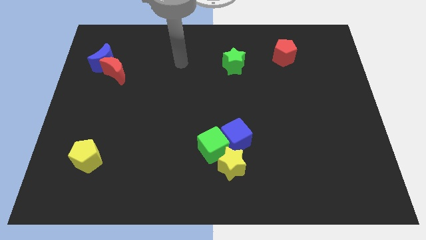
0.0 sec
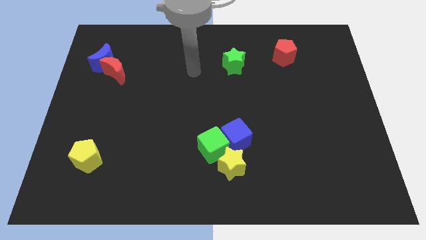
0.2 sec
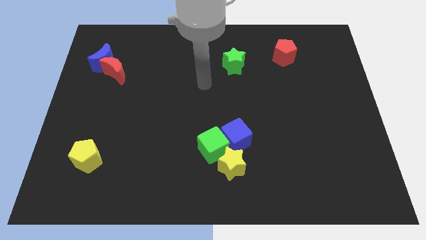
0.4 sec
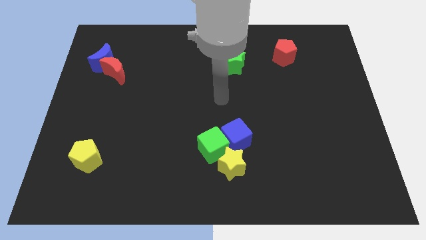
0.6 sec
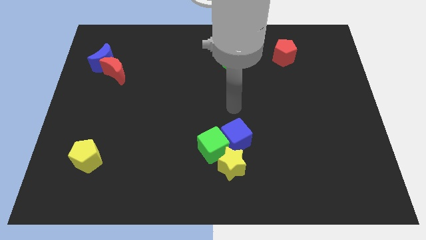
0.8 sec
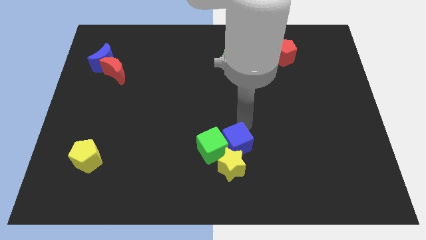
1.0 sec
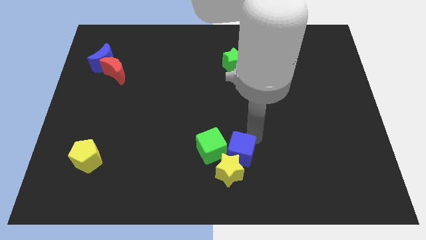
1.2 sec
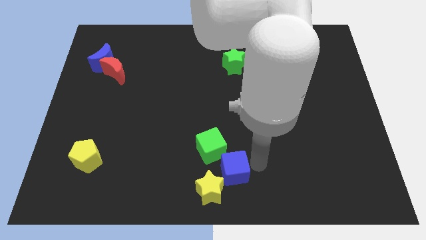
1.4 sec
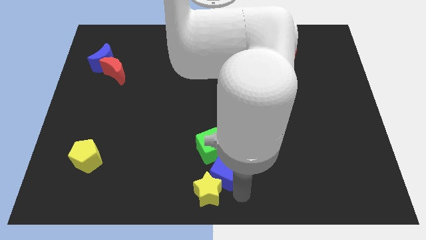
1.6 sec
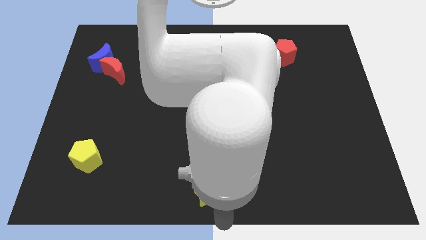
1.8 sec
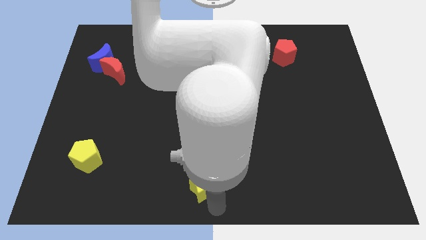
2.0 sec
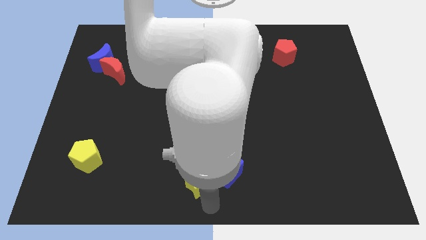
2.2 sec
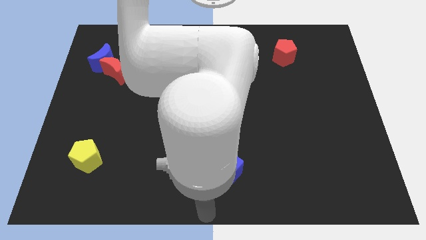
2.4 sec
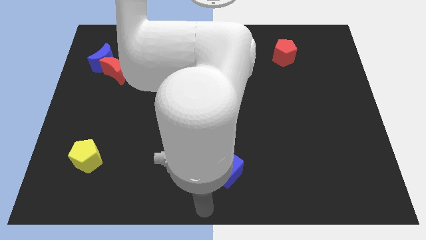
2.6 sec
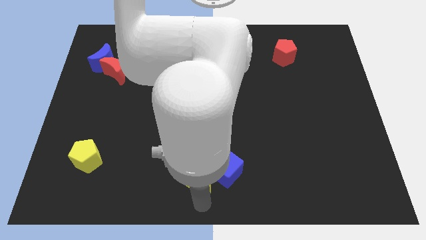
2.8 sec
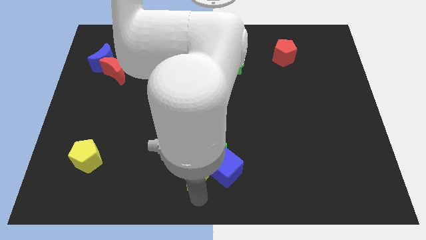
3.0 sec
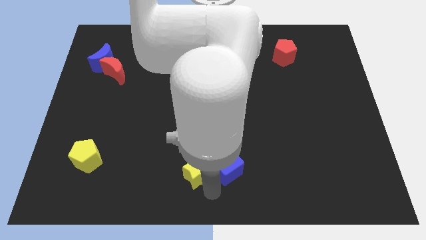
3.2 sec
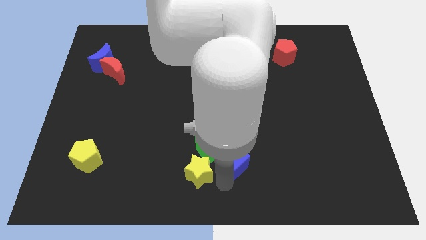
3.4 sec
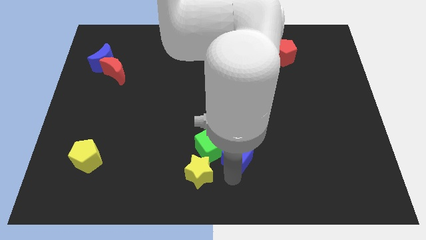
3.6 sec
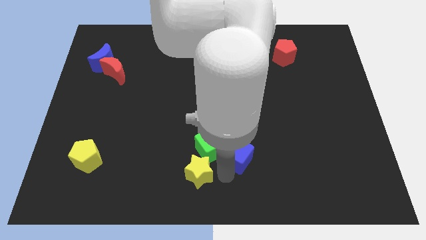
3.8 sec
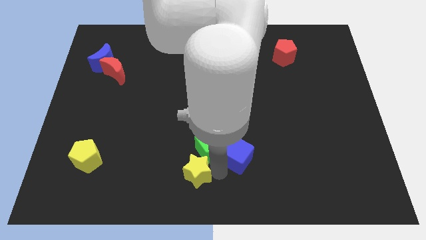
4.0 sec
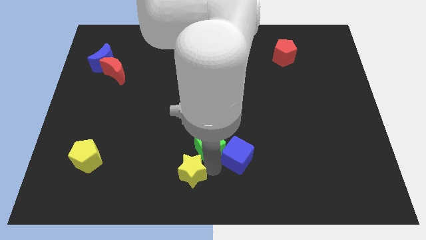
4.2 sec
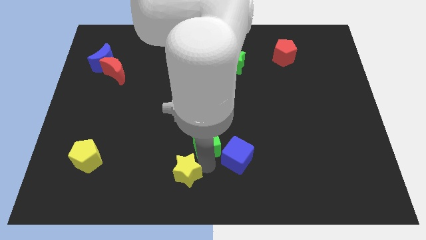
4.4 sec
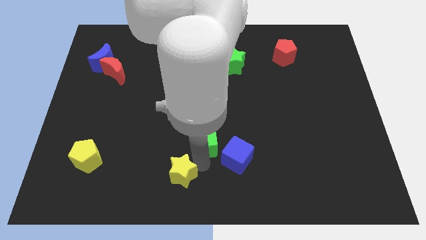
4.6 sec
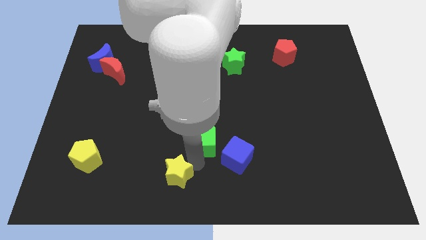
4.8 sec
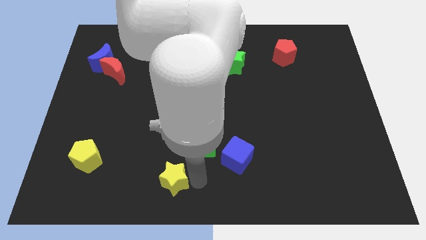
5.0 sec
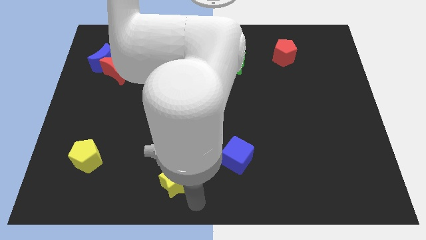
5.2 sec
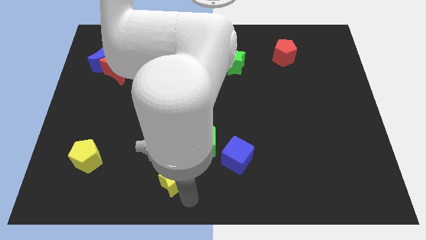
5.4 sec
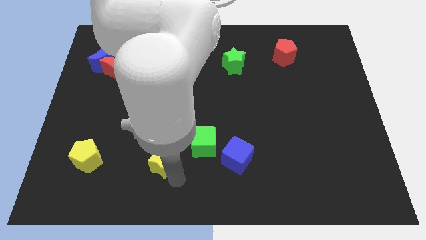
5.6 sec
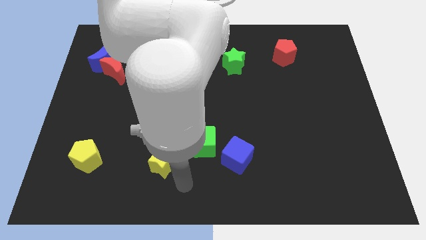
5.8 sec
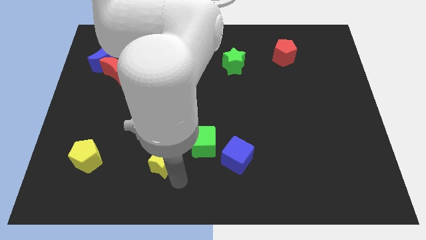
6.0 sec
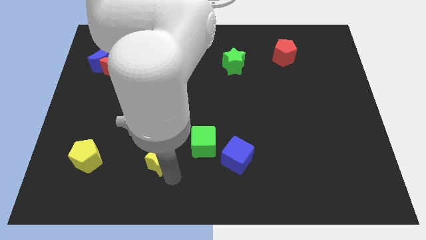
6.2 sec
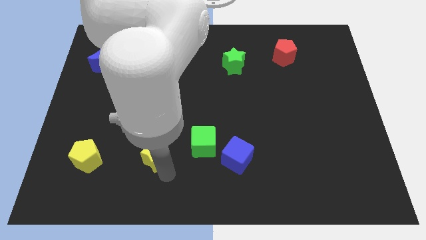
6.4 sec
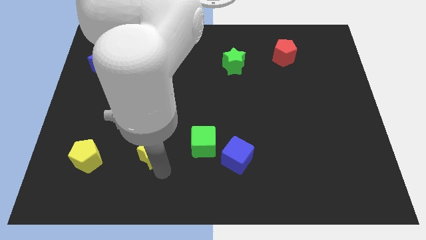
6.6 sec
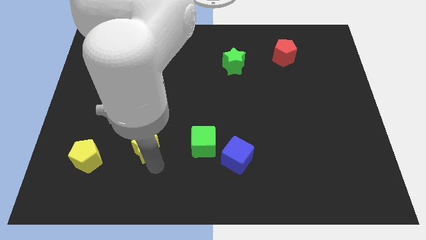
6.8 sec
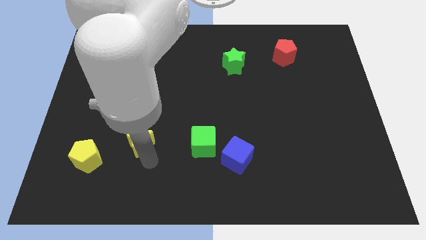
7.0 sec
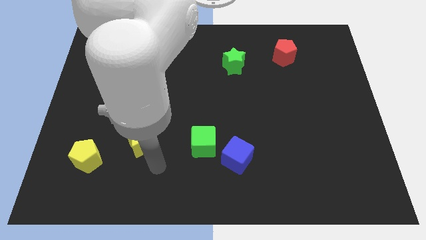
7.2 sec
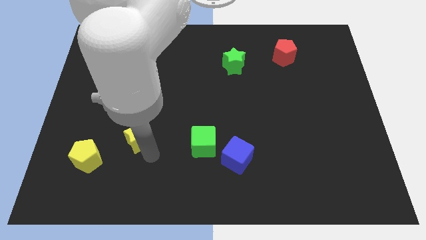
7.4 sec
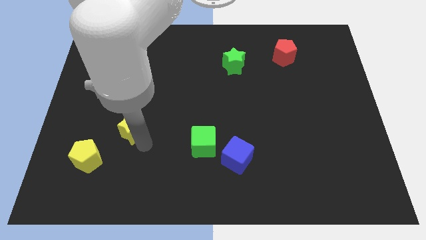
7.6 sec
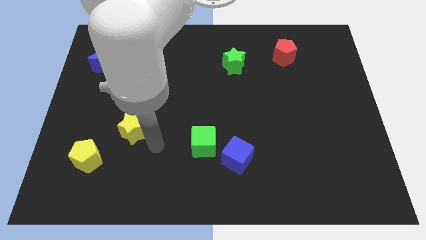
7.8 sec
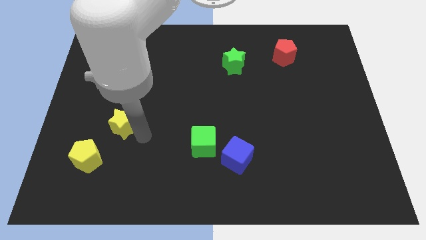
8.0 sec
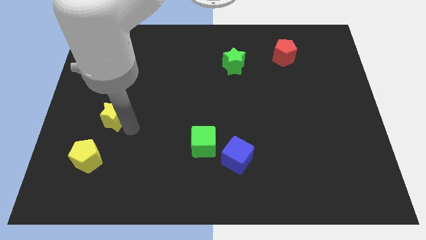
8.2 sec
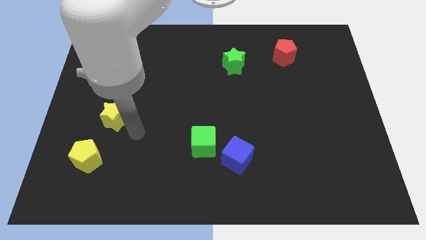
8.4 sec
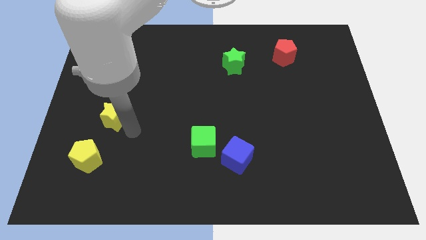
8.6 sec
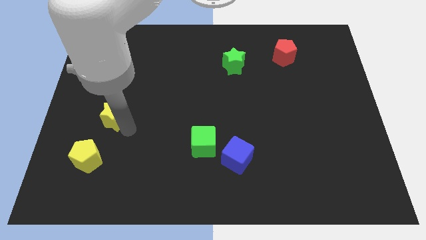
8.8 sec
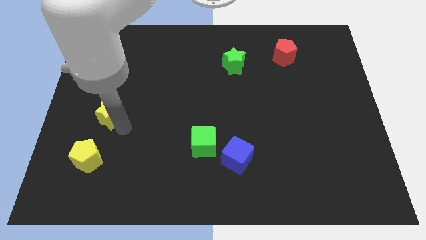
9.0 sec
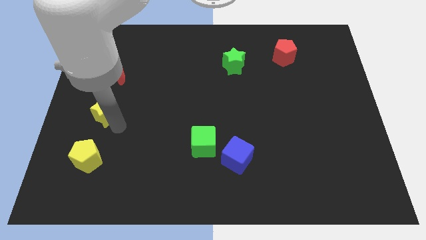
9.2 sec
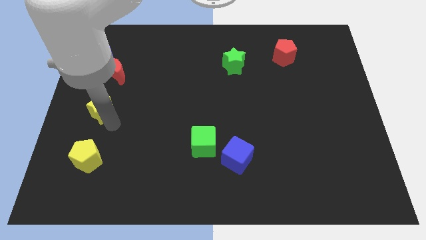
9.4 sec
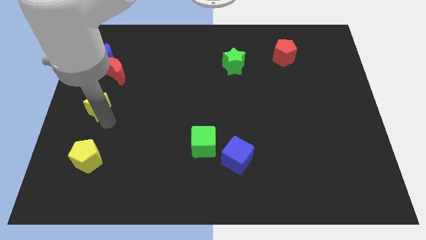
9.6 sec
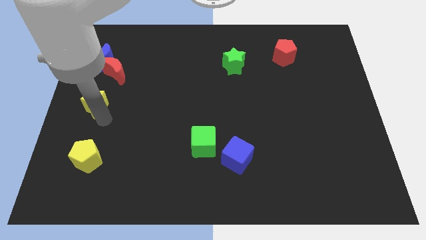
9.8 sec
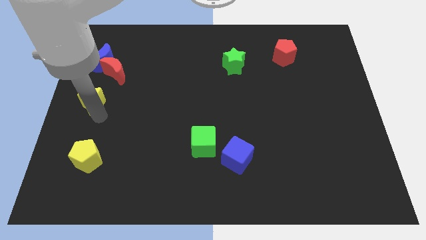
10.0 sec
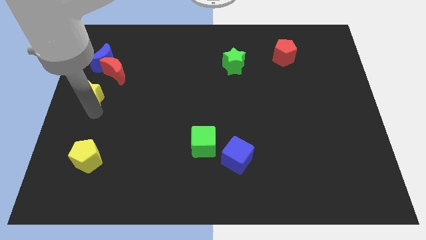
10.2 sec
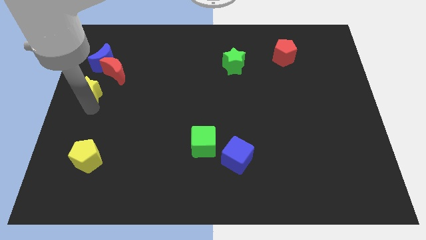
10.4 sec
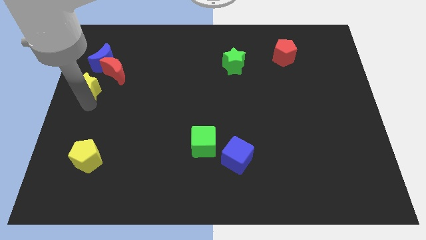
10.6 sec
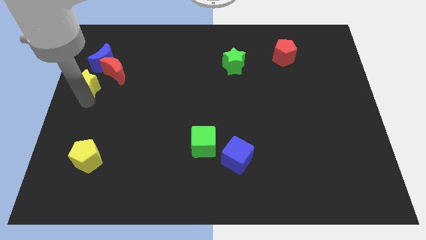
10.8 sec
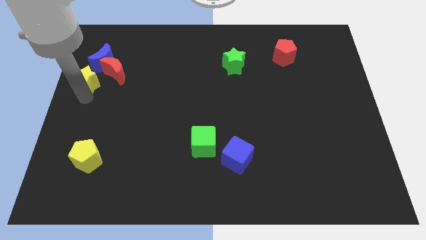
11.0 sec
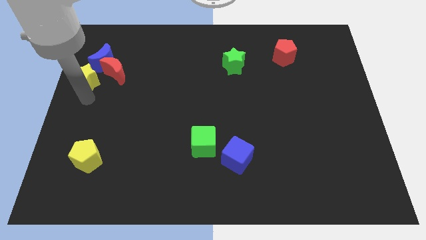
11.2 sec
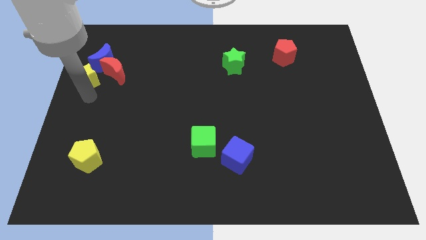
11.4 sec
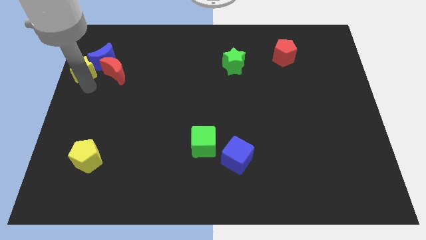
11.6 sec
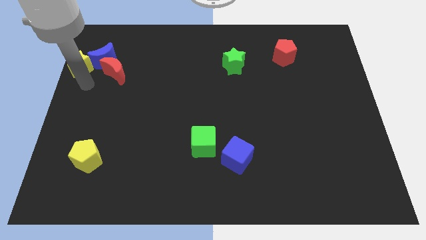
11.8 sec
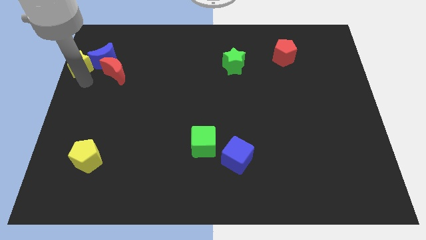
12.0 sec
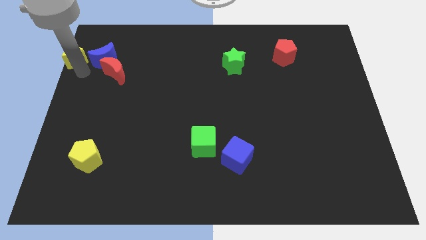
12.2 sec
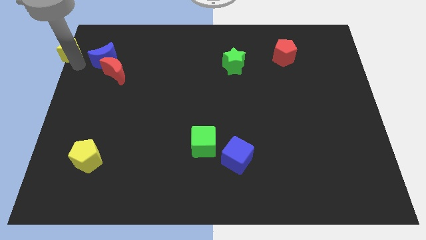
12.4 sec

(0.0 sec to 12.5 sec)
push the yellow star to the top left
